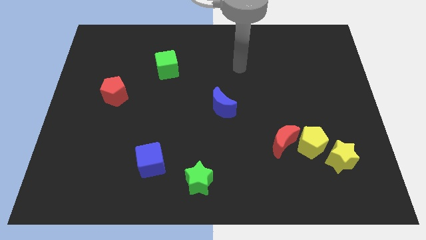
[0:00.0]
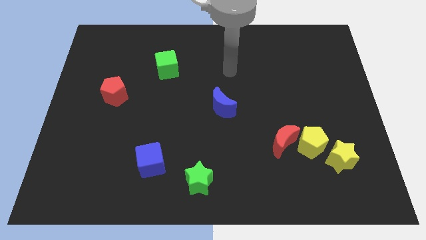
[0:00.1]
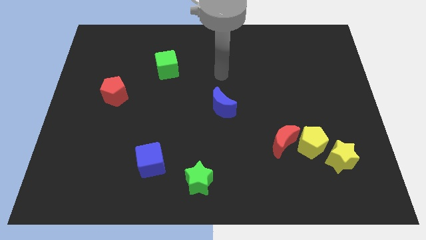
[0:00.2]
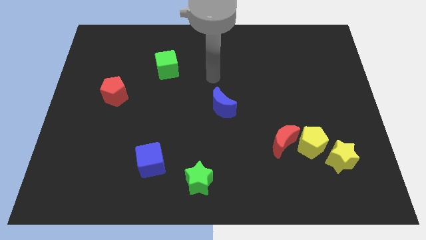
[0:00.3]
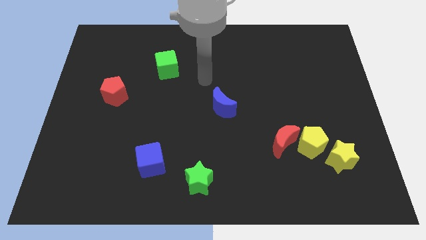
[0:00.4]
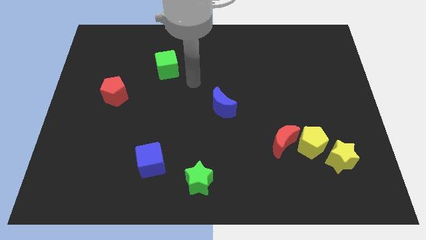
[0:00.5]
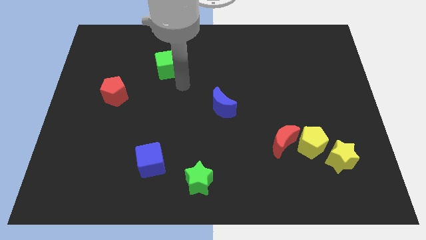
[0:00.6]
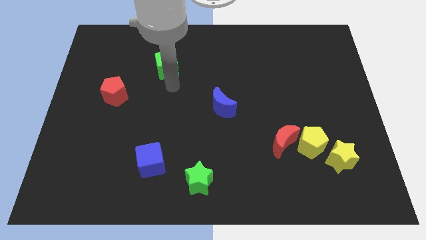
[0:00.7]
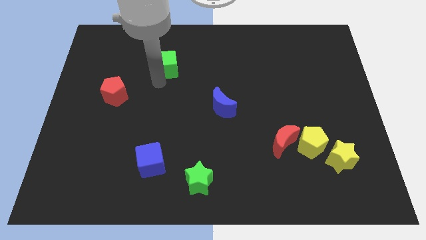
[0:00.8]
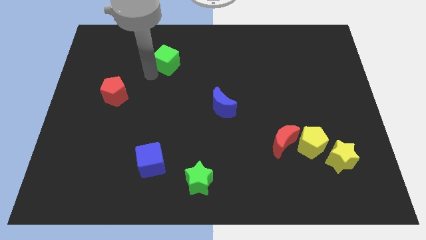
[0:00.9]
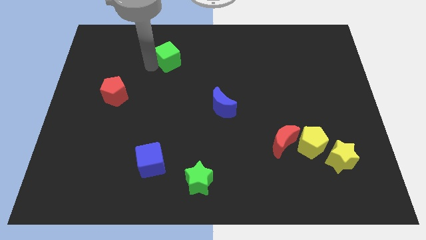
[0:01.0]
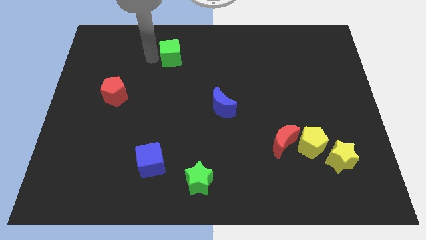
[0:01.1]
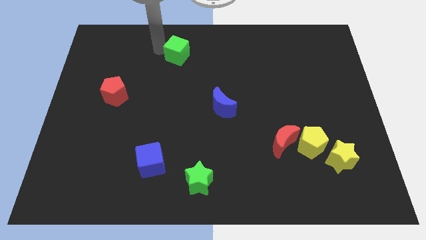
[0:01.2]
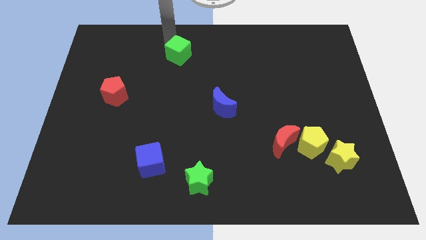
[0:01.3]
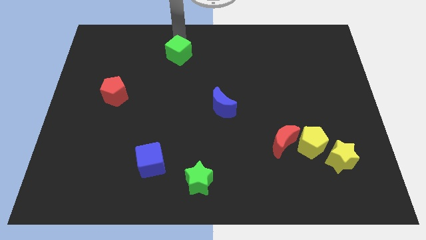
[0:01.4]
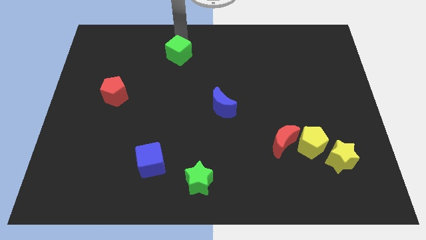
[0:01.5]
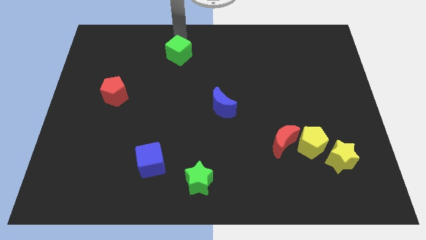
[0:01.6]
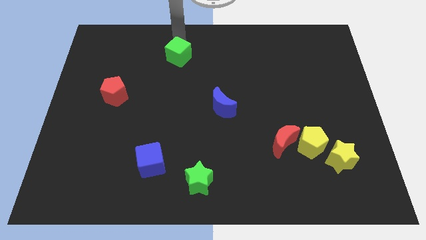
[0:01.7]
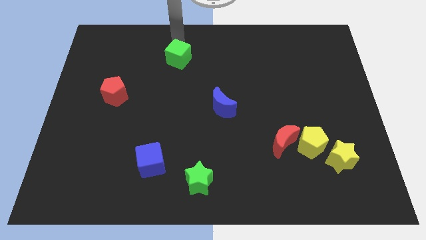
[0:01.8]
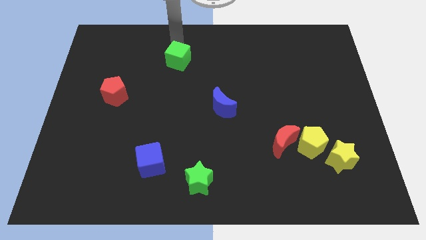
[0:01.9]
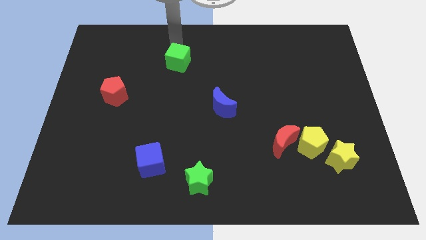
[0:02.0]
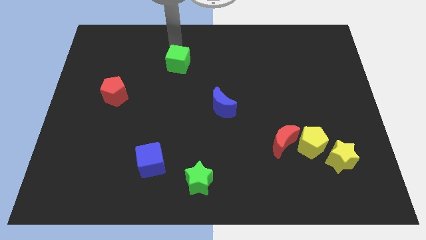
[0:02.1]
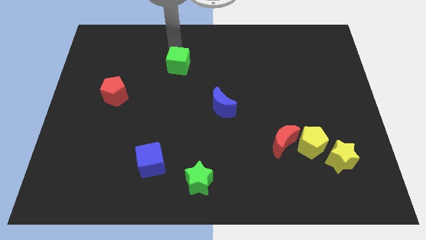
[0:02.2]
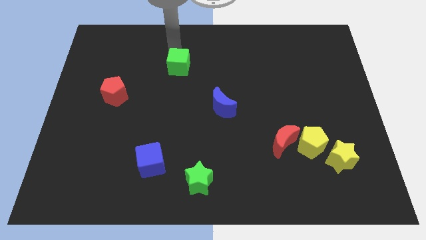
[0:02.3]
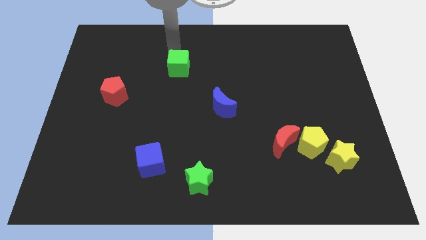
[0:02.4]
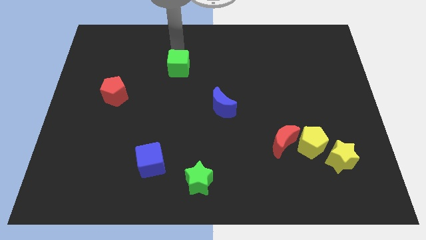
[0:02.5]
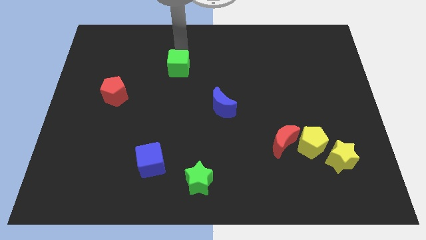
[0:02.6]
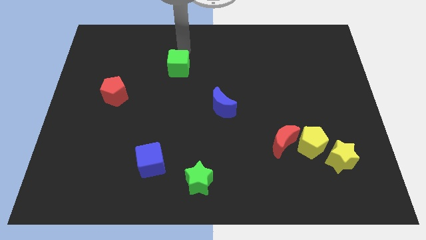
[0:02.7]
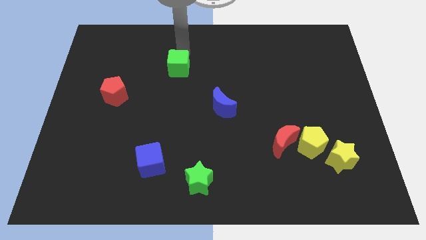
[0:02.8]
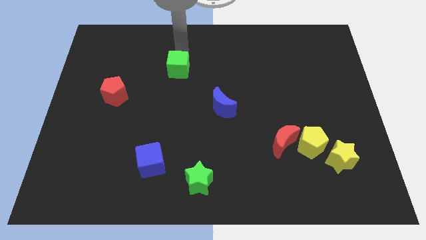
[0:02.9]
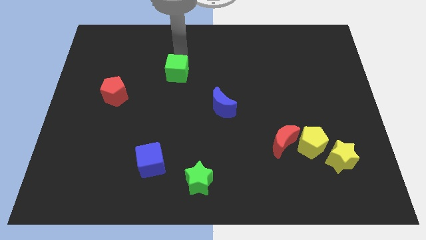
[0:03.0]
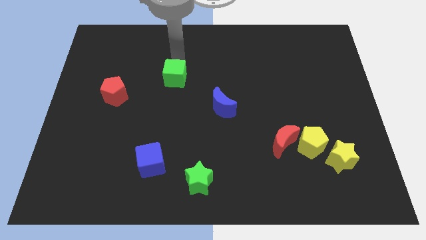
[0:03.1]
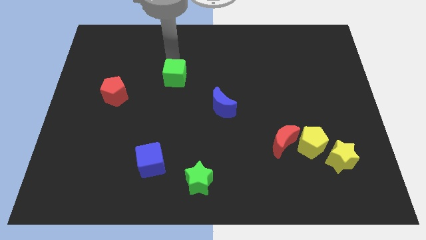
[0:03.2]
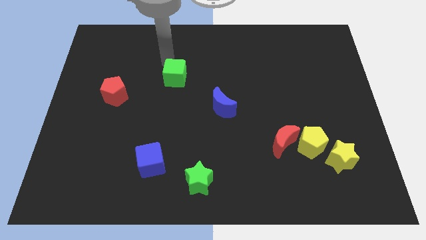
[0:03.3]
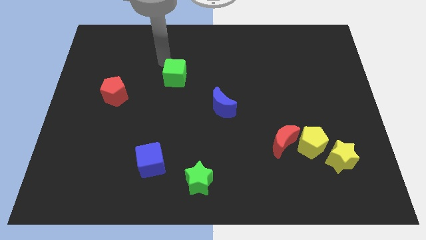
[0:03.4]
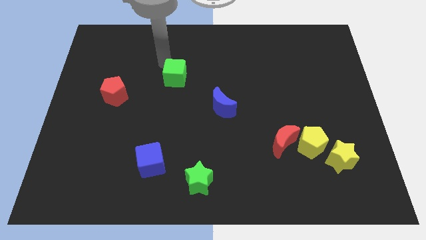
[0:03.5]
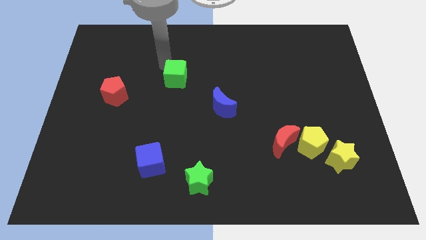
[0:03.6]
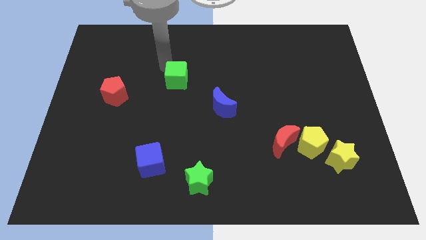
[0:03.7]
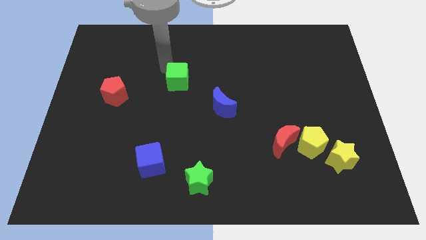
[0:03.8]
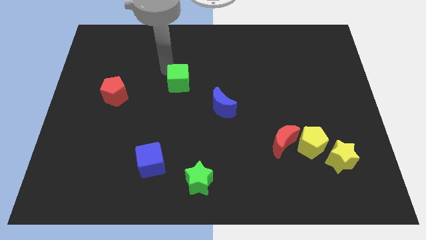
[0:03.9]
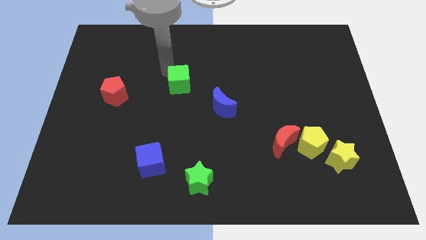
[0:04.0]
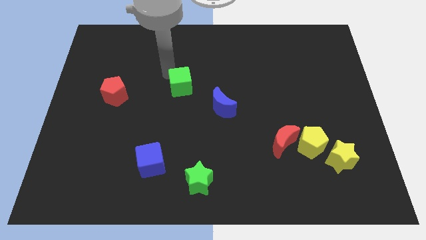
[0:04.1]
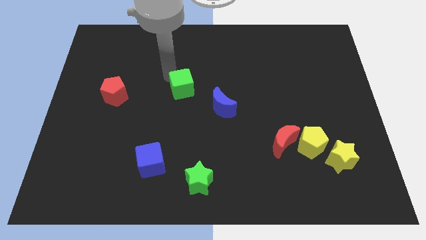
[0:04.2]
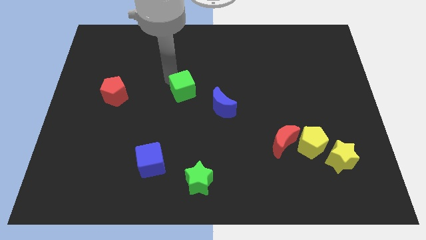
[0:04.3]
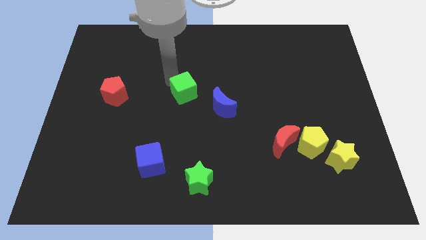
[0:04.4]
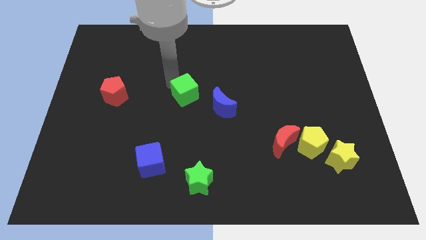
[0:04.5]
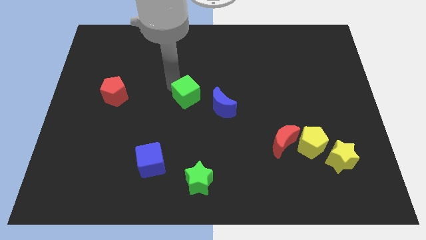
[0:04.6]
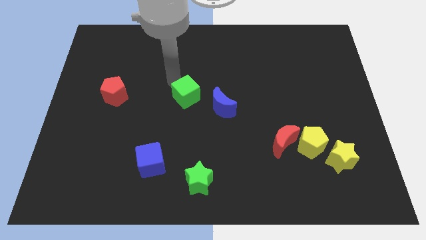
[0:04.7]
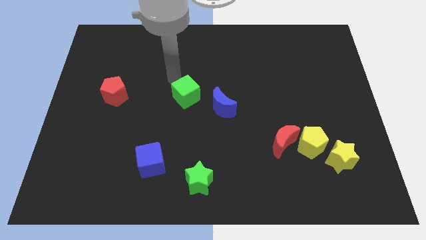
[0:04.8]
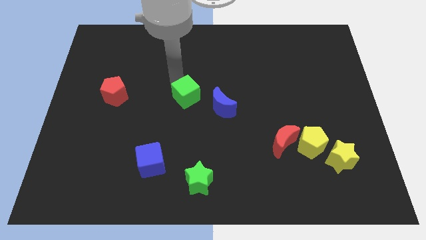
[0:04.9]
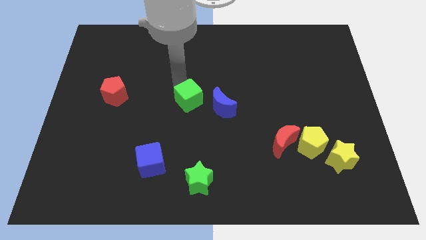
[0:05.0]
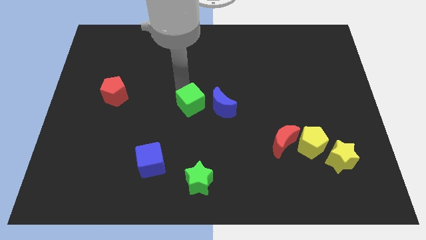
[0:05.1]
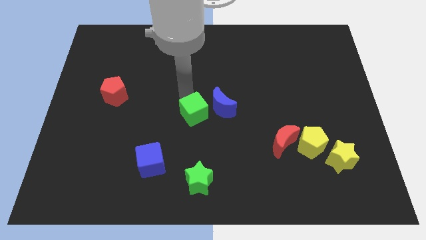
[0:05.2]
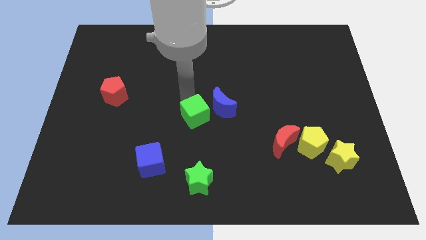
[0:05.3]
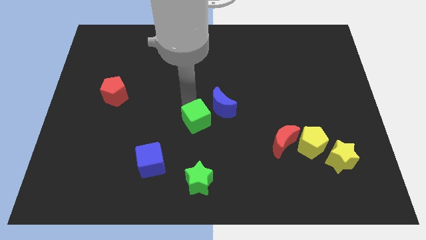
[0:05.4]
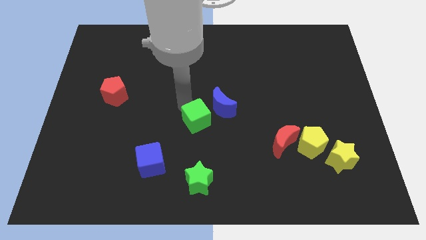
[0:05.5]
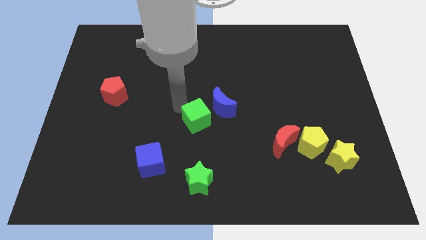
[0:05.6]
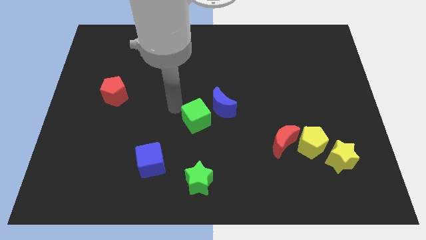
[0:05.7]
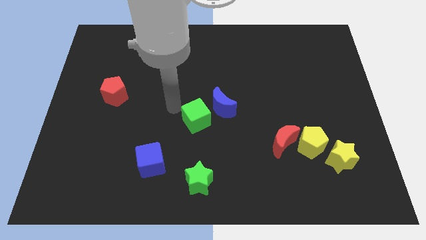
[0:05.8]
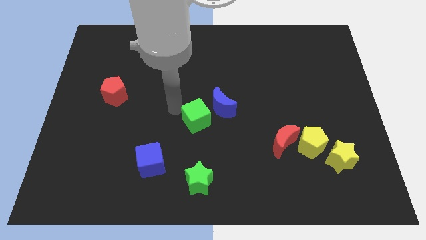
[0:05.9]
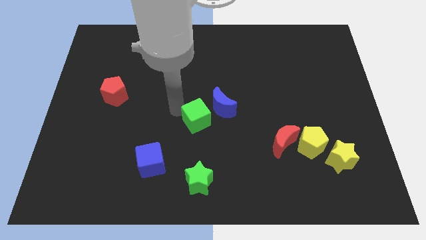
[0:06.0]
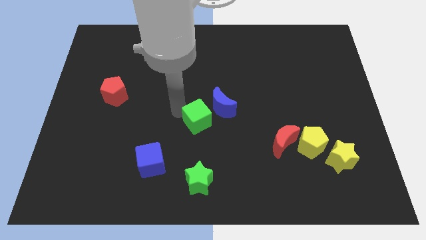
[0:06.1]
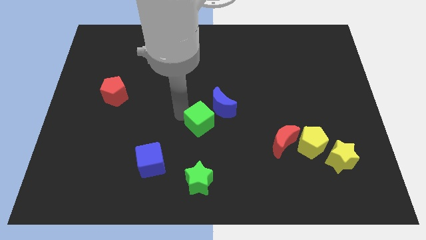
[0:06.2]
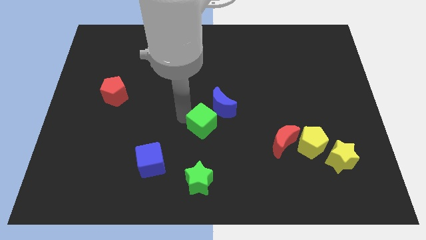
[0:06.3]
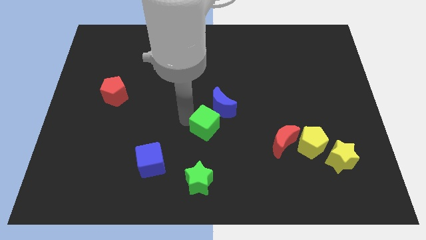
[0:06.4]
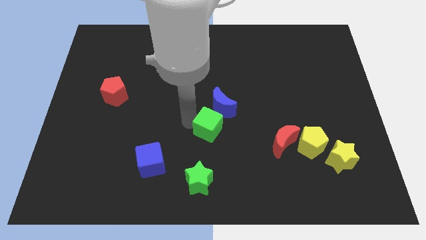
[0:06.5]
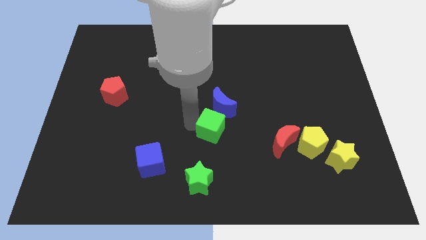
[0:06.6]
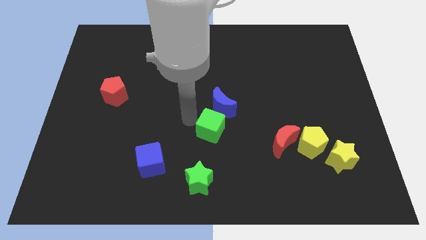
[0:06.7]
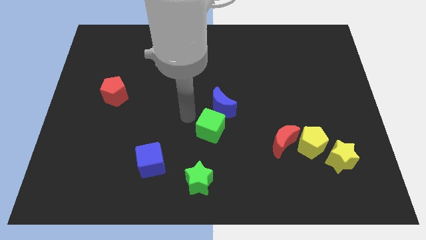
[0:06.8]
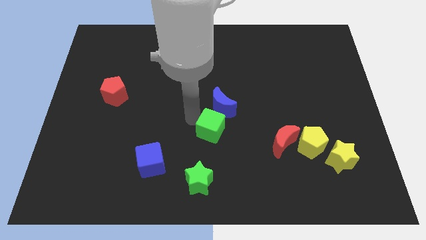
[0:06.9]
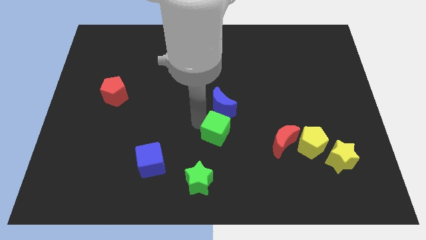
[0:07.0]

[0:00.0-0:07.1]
slide the green cube left of the red moon
